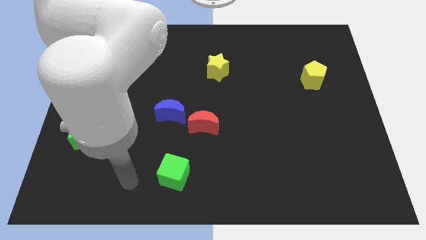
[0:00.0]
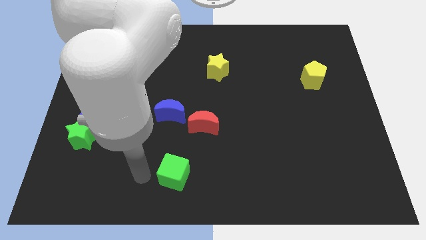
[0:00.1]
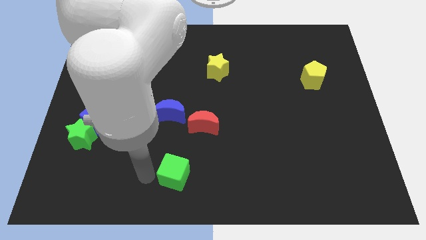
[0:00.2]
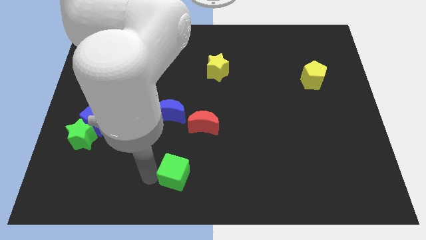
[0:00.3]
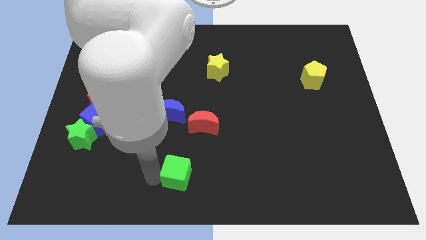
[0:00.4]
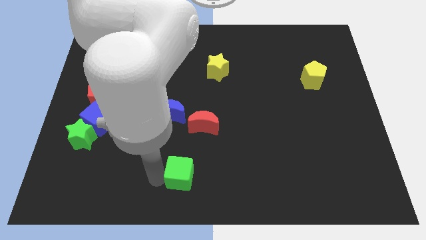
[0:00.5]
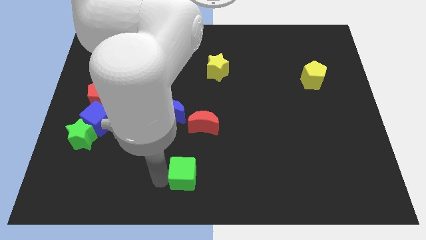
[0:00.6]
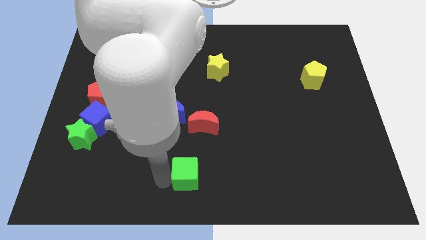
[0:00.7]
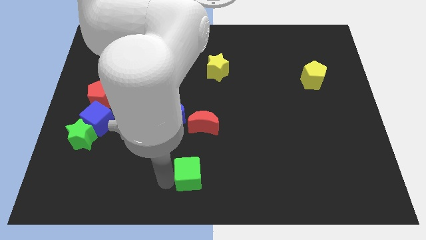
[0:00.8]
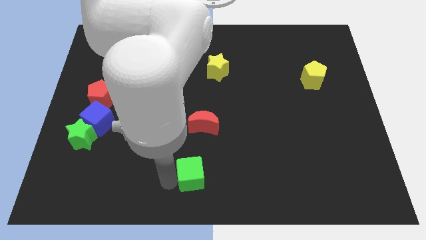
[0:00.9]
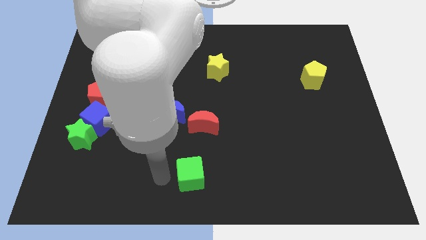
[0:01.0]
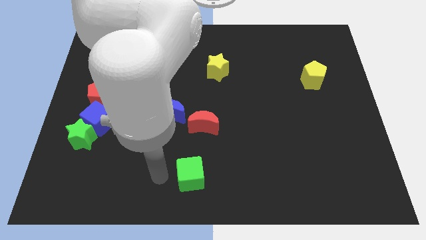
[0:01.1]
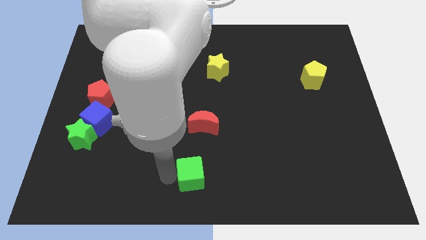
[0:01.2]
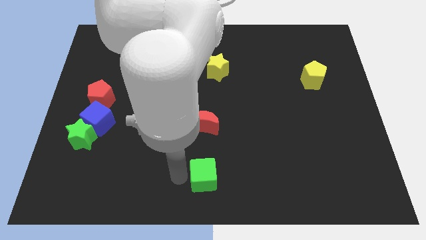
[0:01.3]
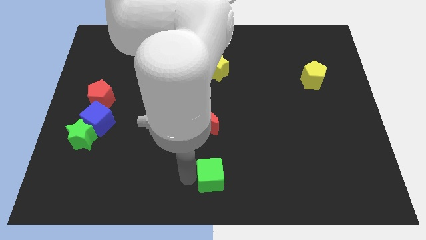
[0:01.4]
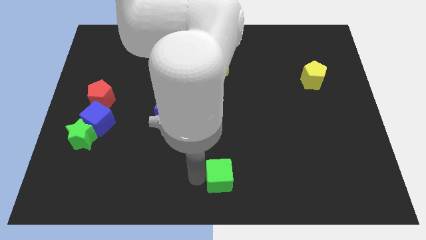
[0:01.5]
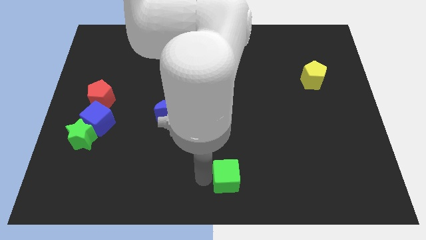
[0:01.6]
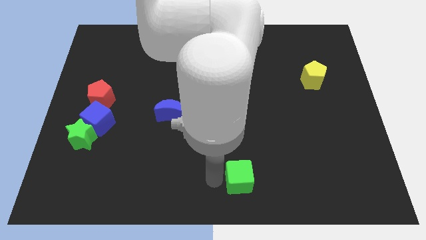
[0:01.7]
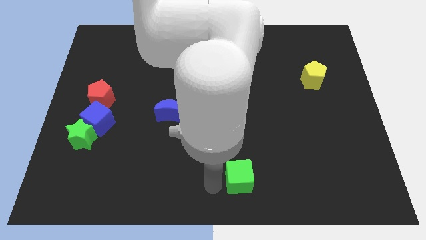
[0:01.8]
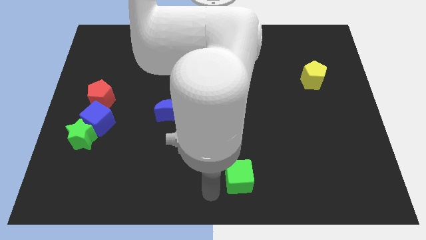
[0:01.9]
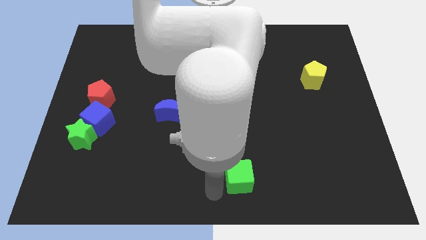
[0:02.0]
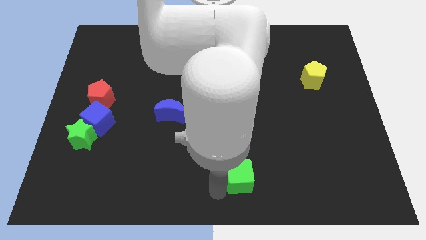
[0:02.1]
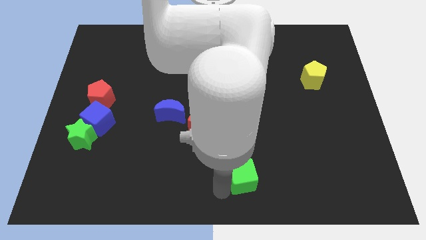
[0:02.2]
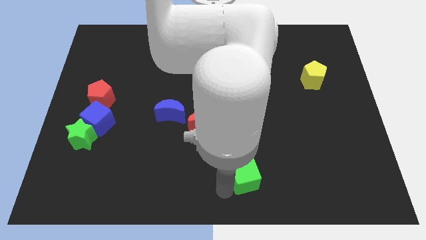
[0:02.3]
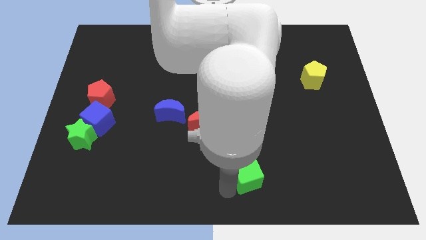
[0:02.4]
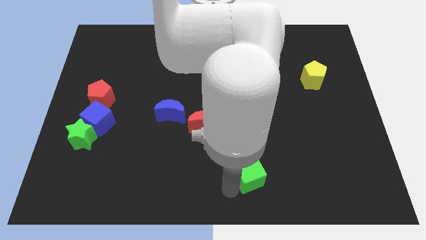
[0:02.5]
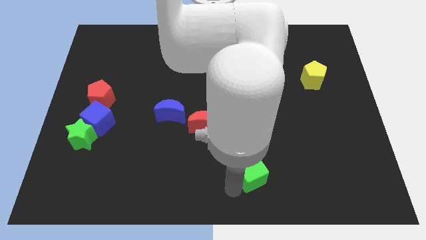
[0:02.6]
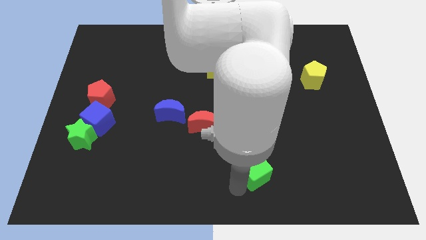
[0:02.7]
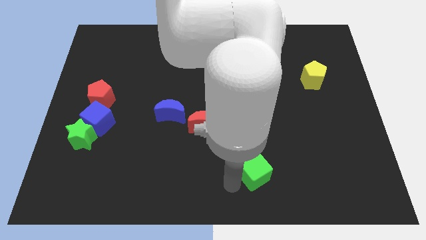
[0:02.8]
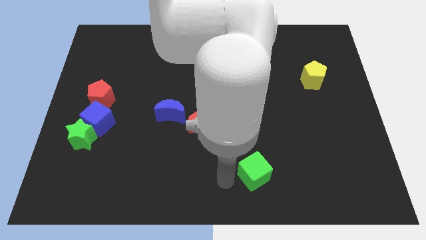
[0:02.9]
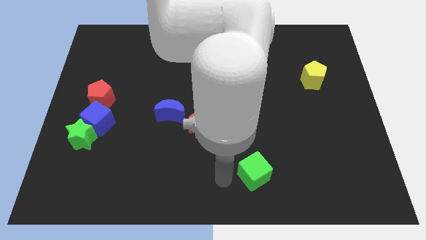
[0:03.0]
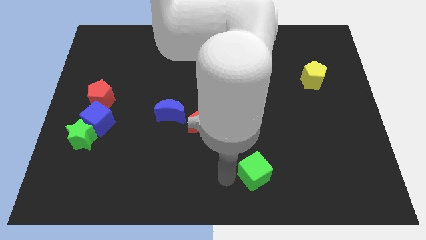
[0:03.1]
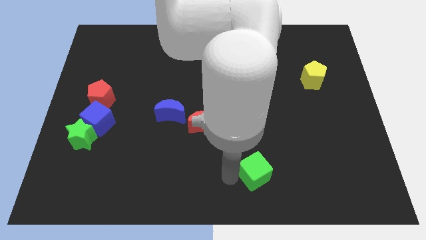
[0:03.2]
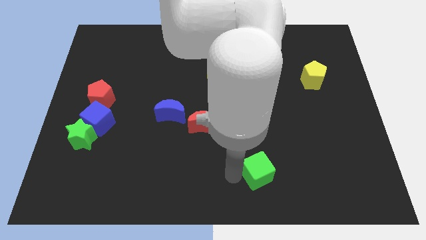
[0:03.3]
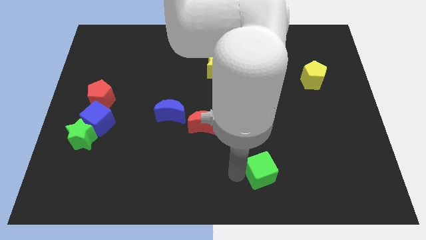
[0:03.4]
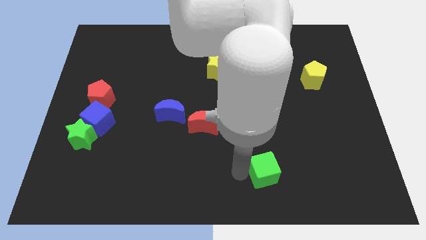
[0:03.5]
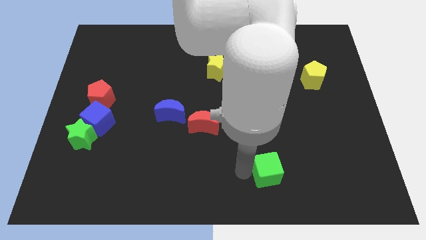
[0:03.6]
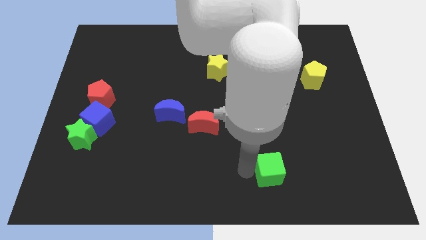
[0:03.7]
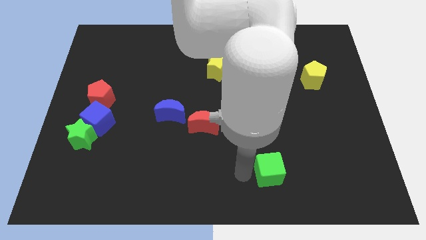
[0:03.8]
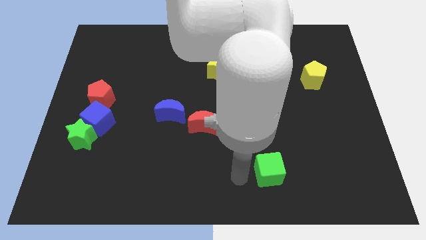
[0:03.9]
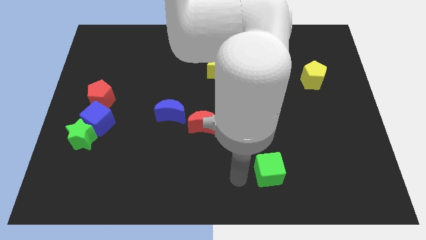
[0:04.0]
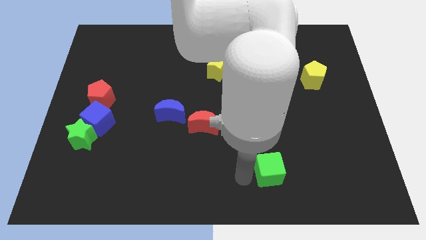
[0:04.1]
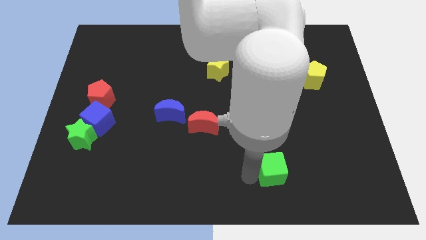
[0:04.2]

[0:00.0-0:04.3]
push the green cube to the right

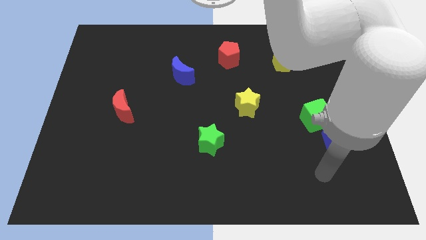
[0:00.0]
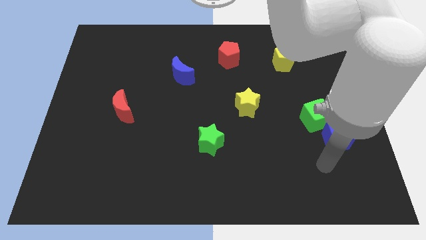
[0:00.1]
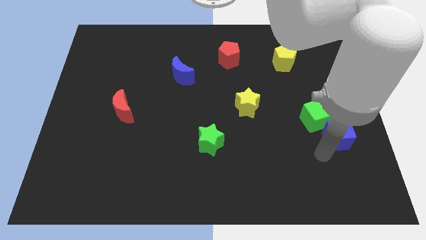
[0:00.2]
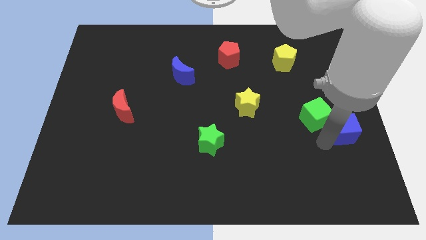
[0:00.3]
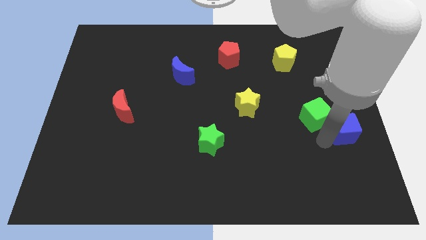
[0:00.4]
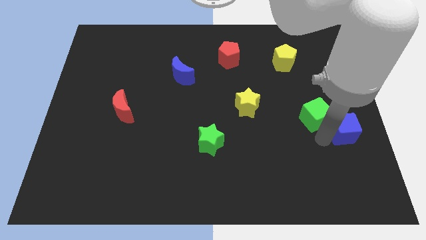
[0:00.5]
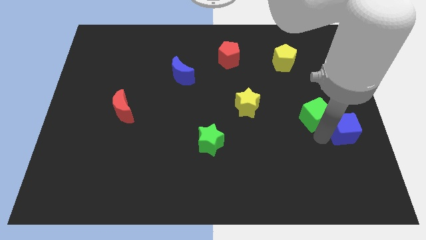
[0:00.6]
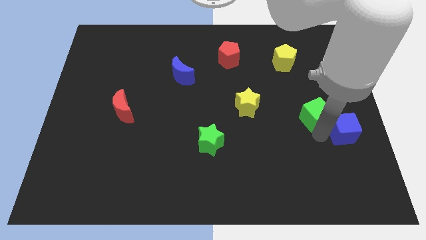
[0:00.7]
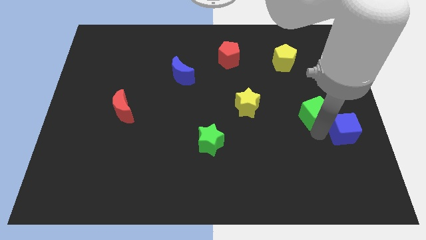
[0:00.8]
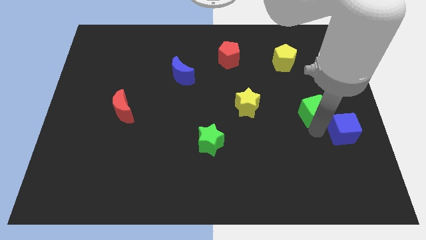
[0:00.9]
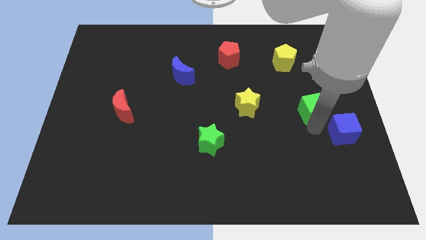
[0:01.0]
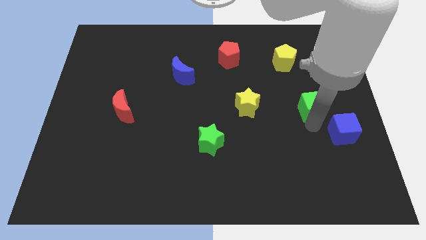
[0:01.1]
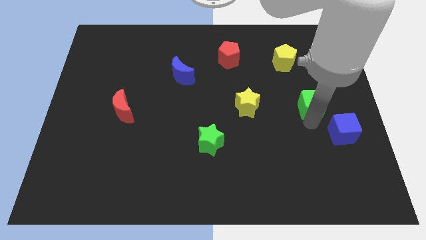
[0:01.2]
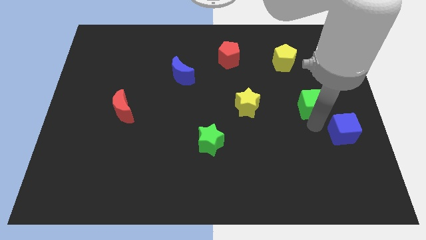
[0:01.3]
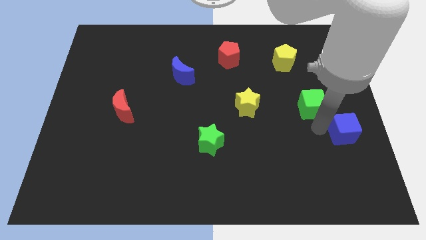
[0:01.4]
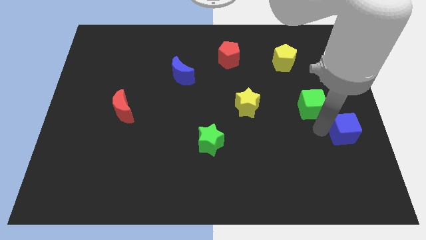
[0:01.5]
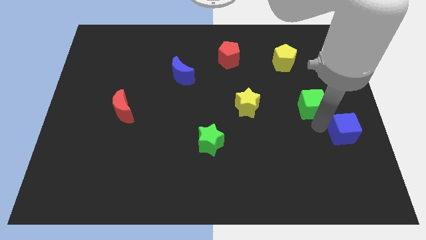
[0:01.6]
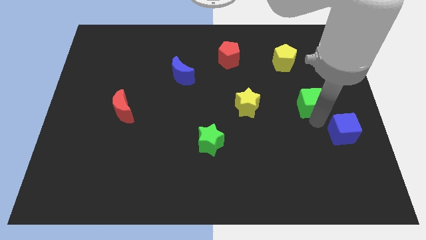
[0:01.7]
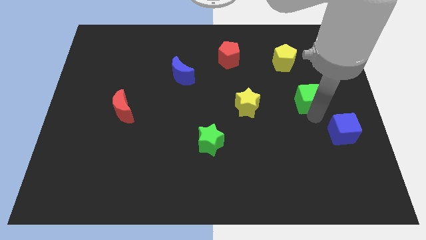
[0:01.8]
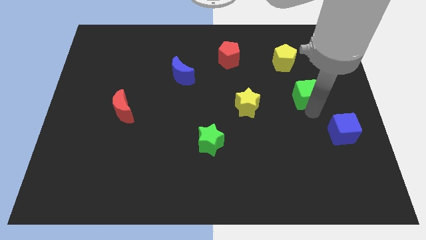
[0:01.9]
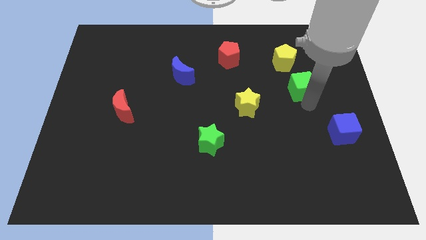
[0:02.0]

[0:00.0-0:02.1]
slide the green cube up a bit

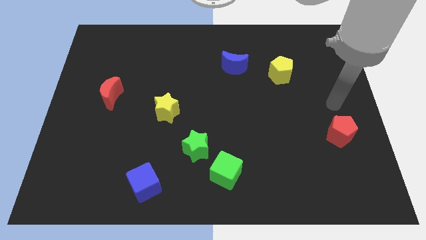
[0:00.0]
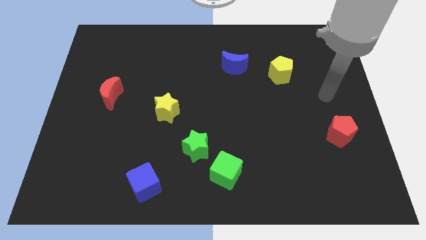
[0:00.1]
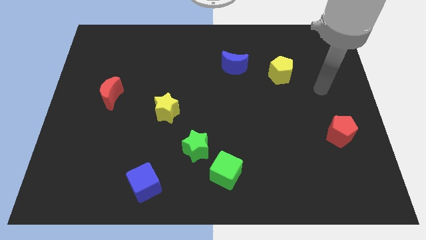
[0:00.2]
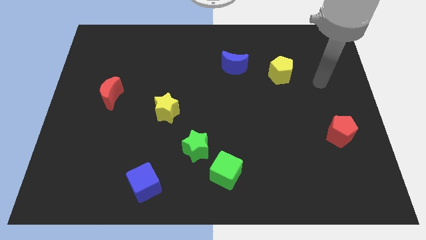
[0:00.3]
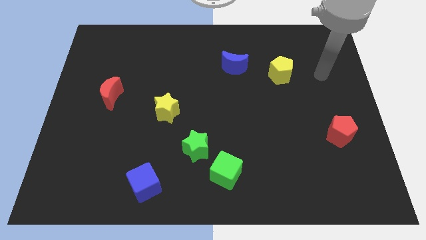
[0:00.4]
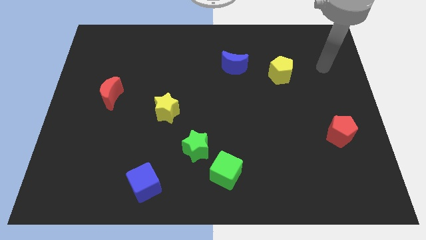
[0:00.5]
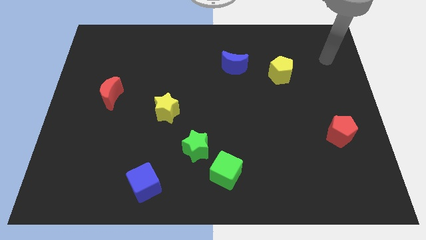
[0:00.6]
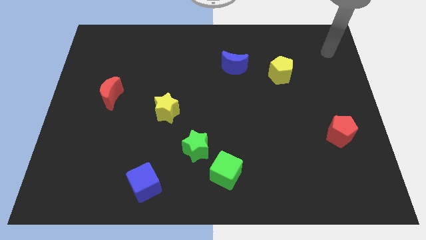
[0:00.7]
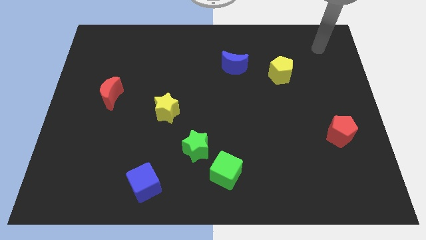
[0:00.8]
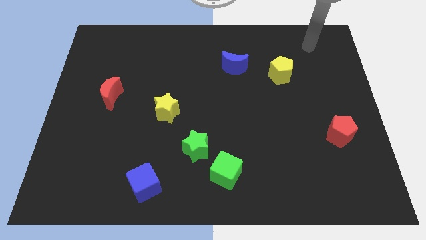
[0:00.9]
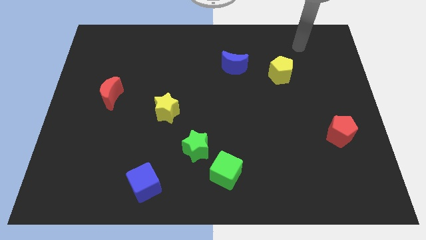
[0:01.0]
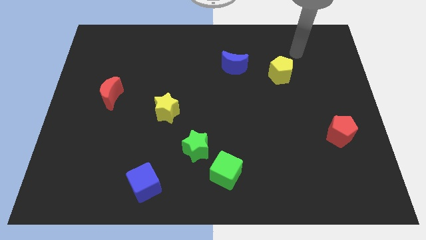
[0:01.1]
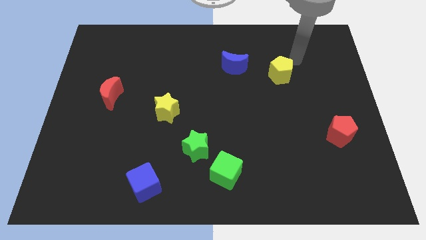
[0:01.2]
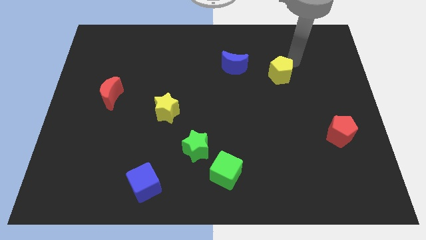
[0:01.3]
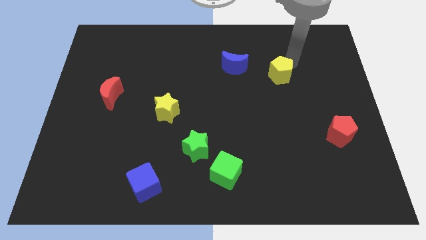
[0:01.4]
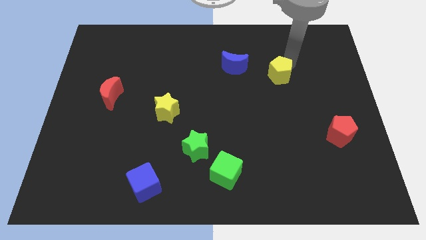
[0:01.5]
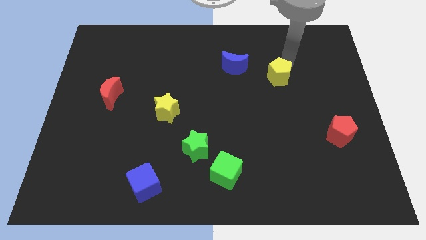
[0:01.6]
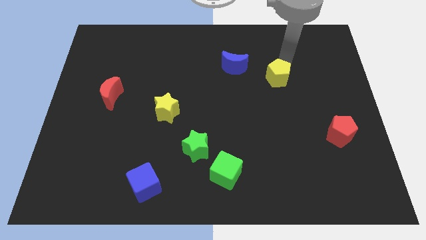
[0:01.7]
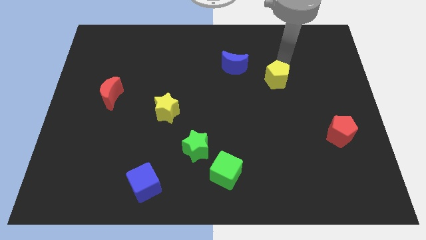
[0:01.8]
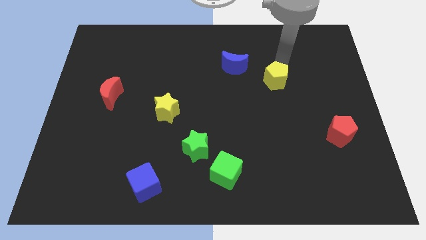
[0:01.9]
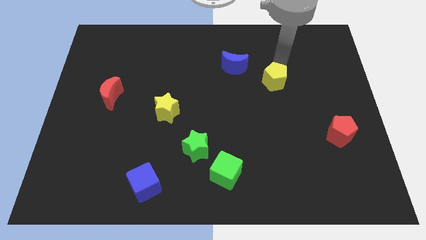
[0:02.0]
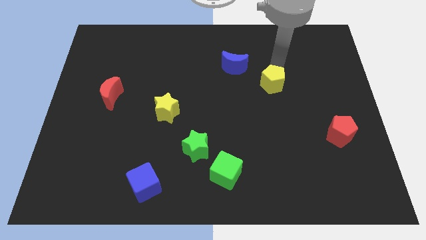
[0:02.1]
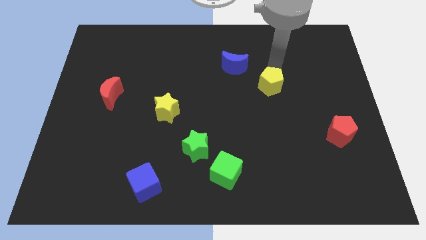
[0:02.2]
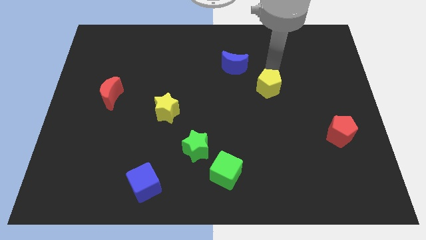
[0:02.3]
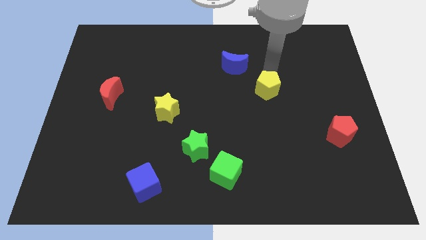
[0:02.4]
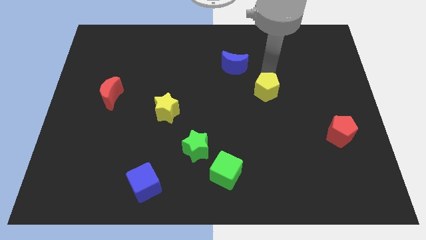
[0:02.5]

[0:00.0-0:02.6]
move the yellow pentagon downwards and left diagonally a bit
